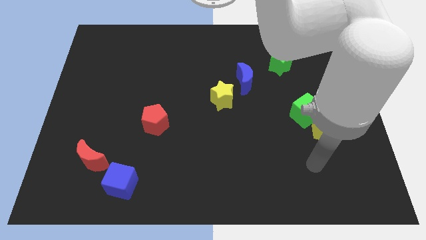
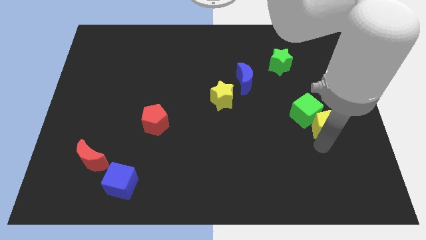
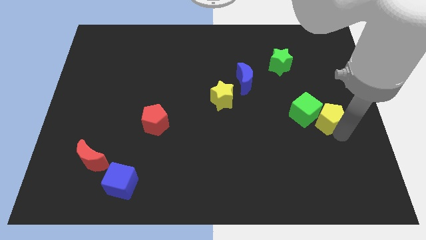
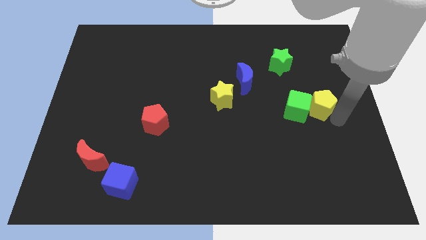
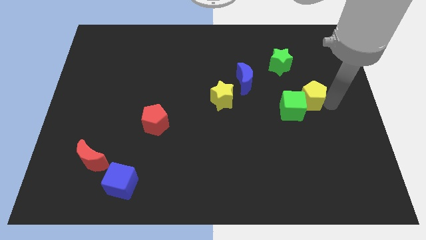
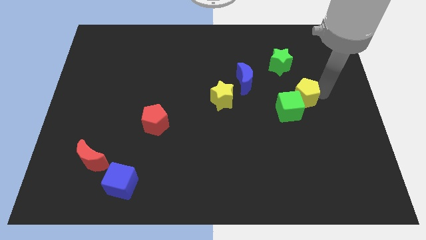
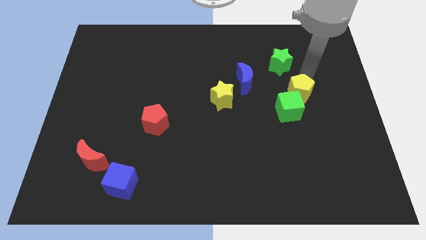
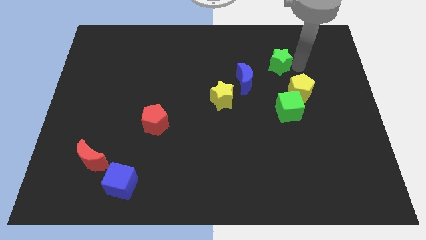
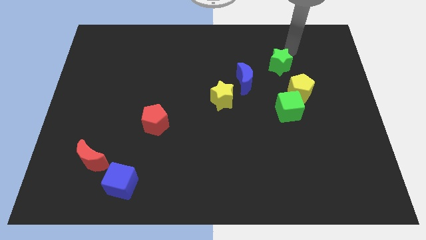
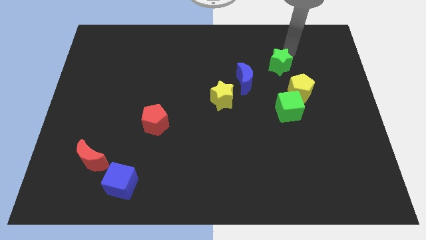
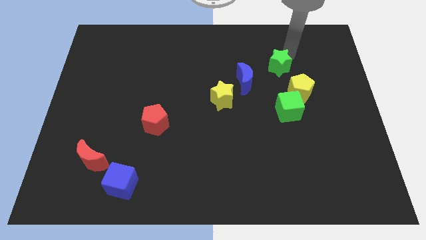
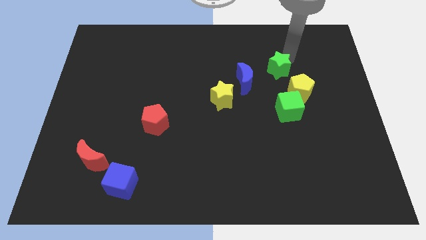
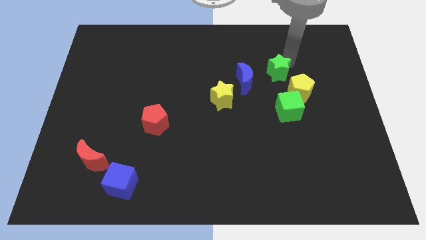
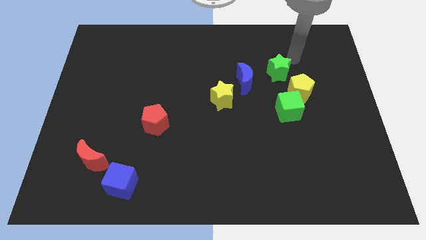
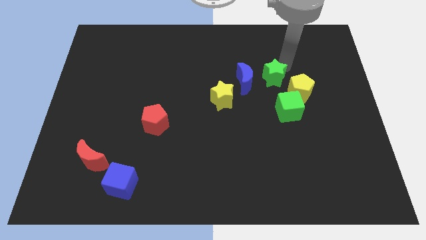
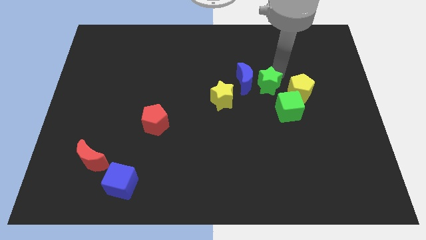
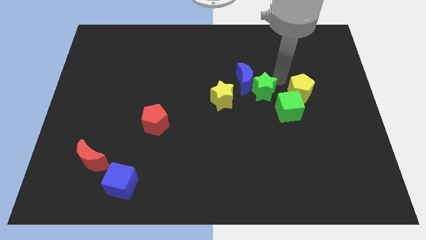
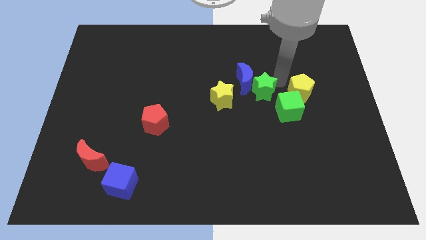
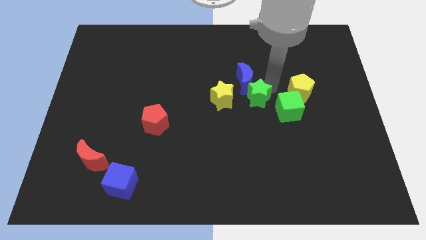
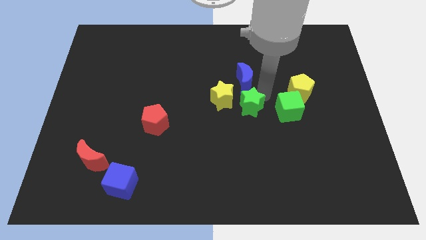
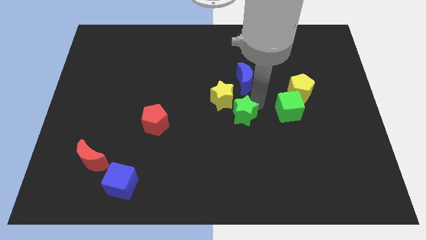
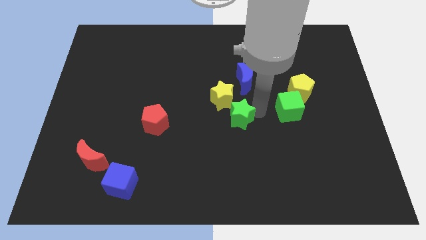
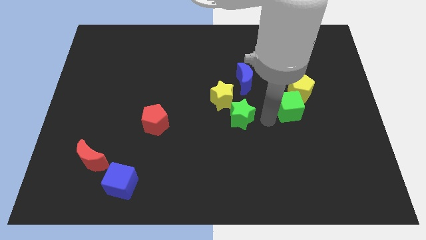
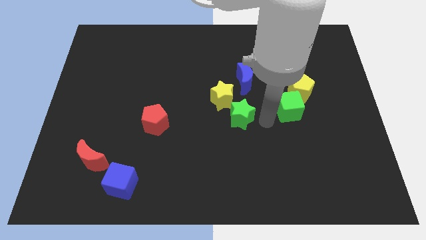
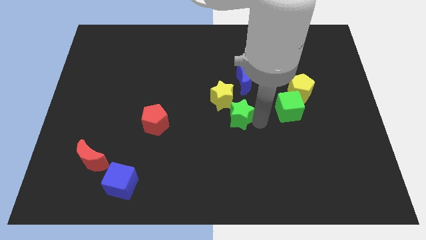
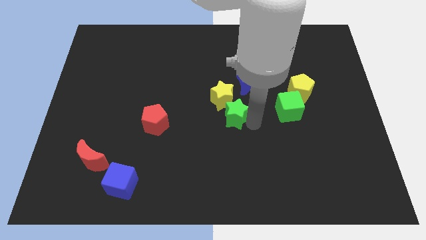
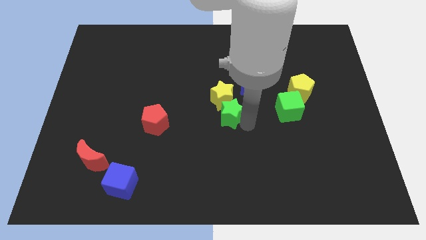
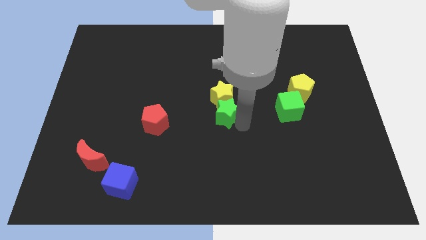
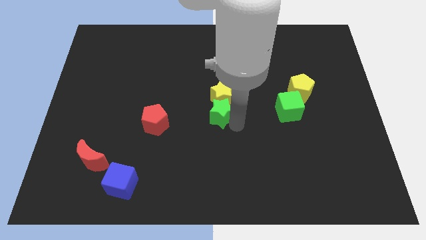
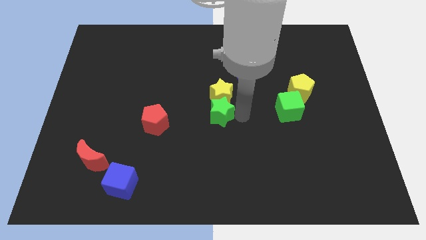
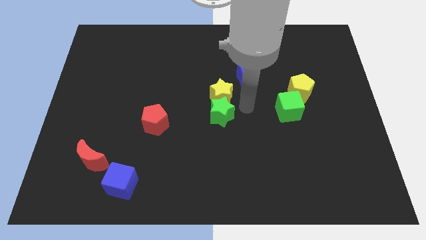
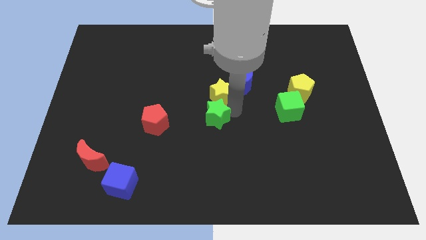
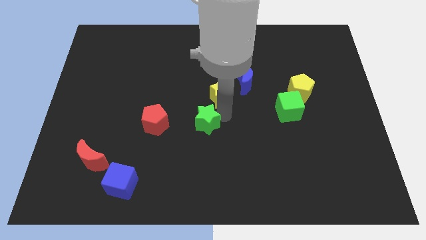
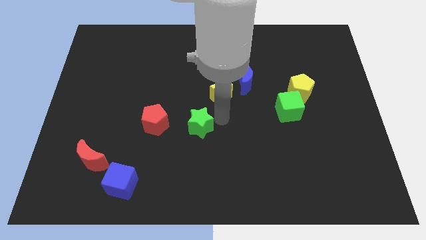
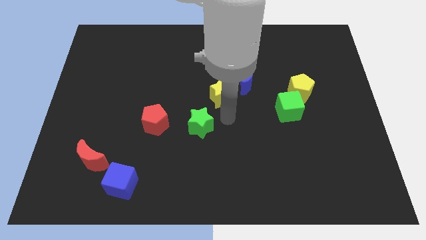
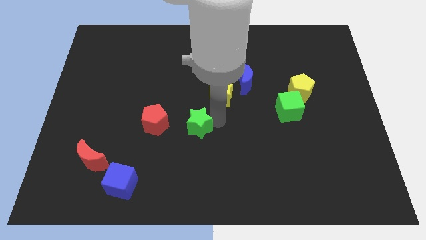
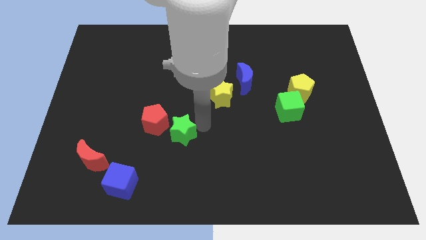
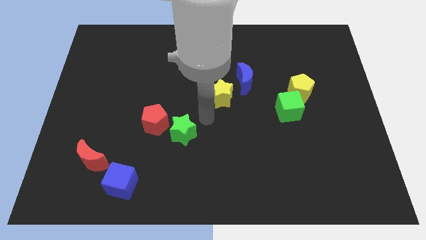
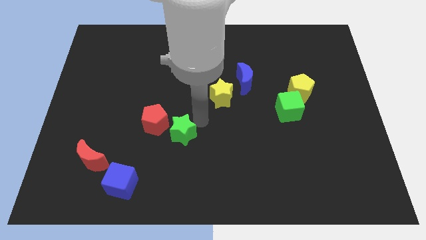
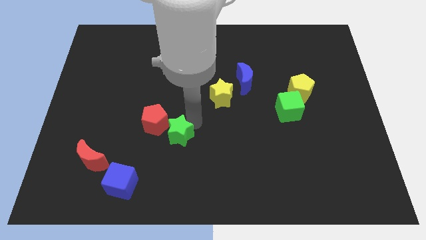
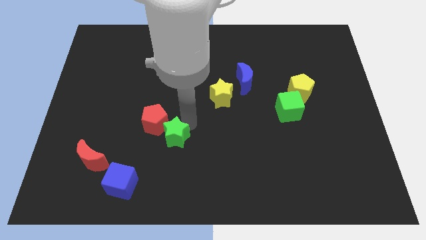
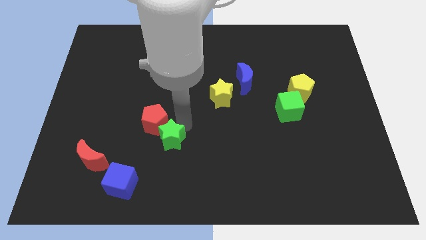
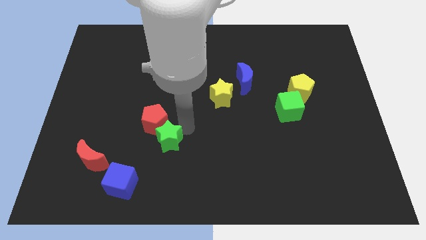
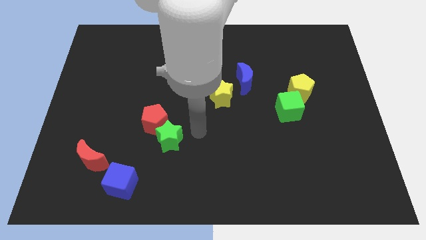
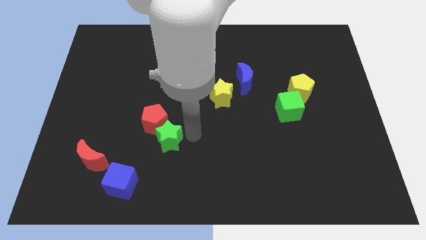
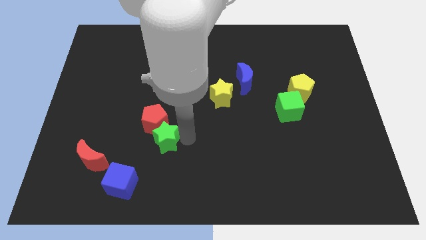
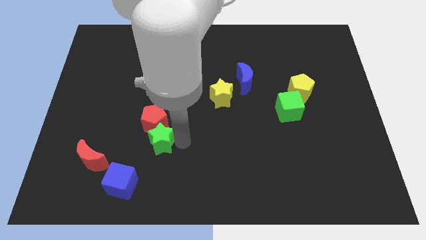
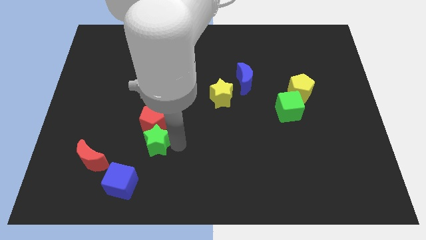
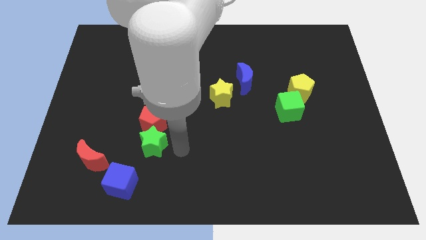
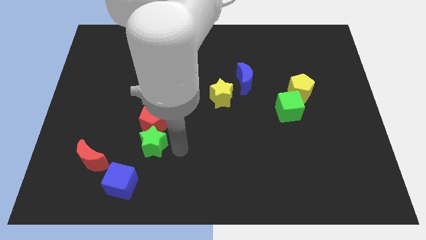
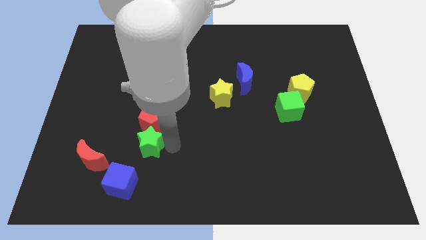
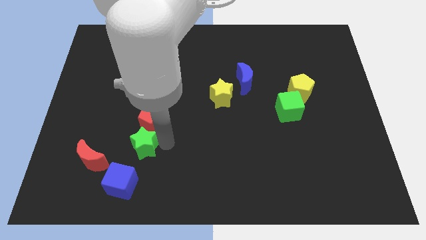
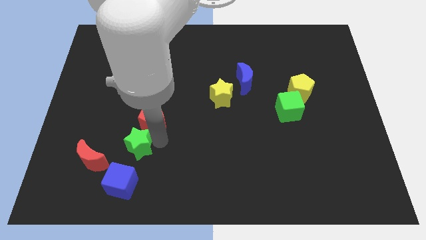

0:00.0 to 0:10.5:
push the green star diagonally up and to the right of the red moon
